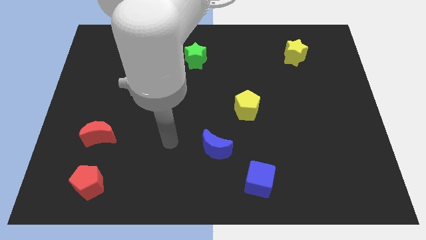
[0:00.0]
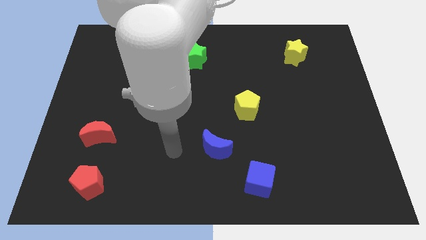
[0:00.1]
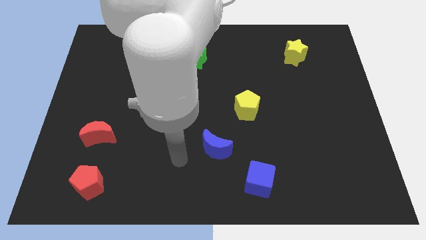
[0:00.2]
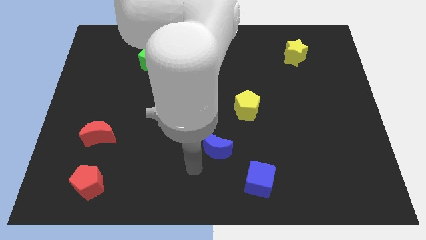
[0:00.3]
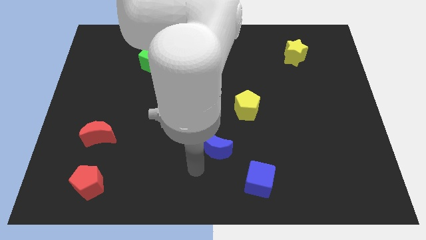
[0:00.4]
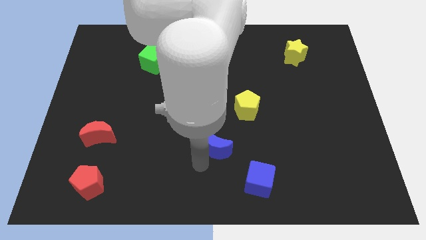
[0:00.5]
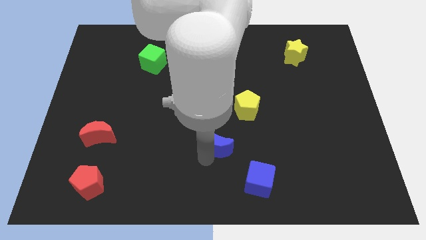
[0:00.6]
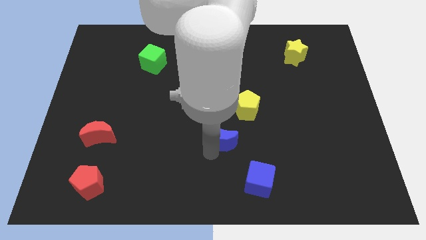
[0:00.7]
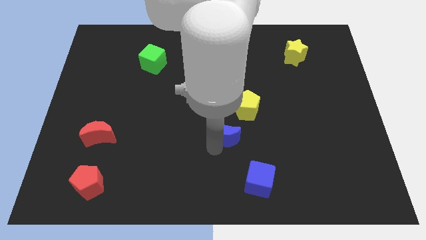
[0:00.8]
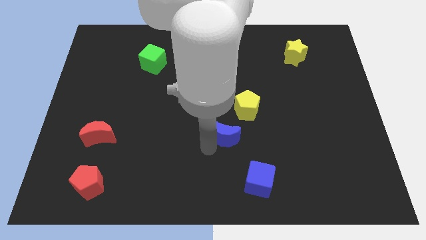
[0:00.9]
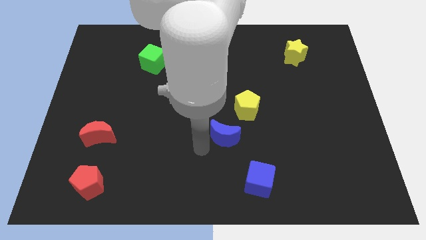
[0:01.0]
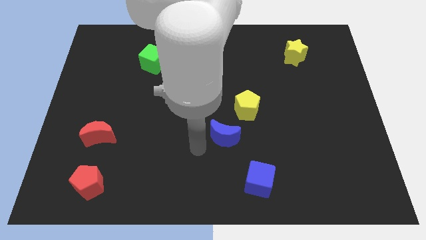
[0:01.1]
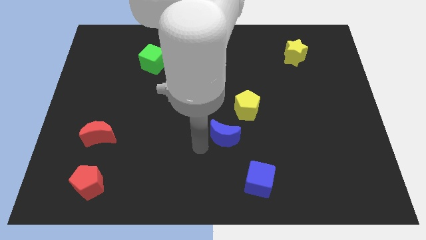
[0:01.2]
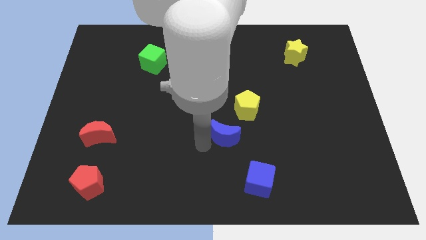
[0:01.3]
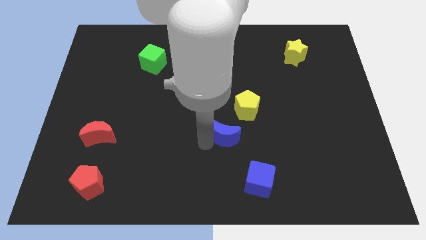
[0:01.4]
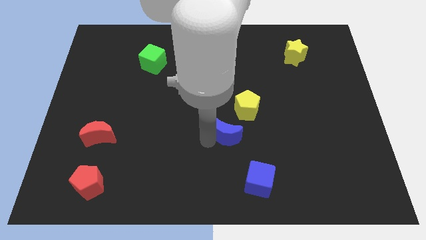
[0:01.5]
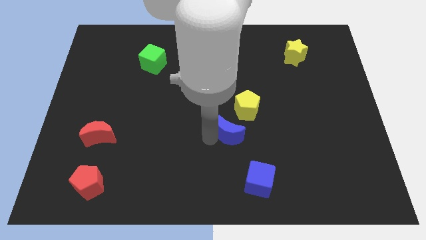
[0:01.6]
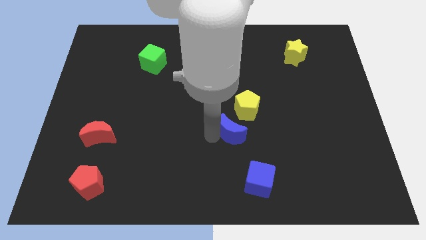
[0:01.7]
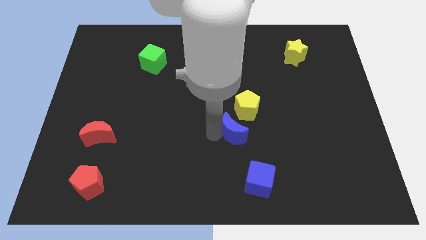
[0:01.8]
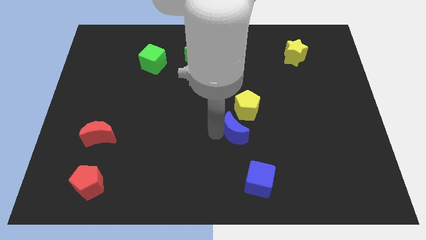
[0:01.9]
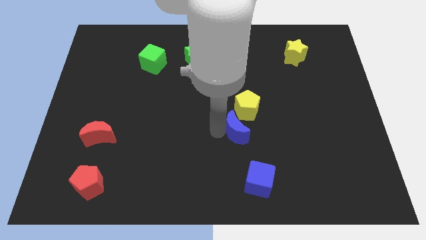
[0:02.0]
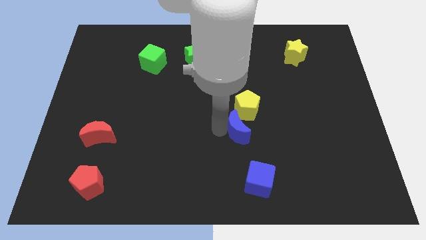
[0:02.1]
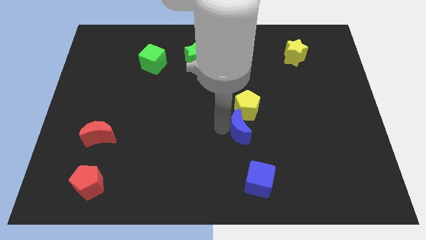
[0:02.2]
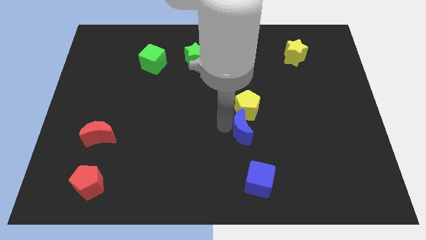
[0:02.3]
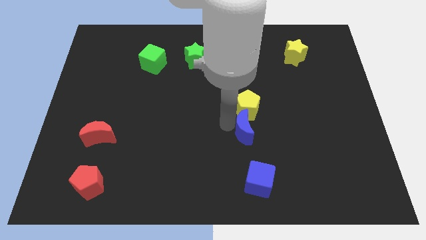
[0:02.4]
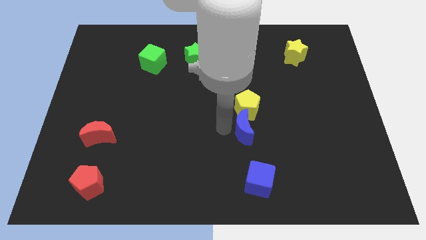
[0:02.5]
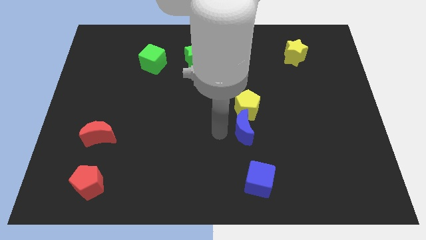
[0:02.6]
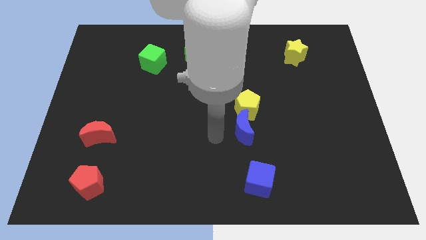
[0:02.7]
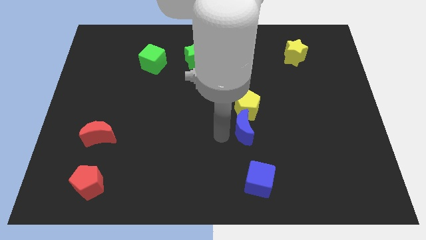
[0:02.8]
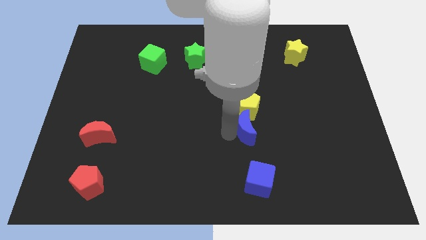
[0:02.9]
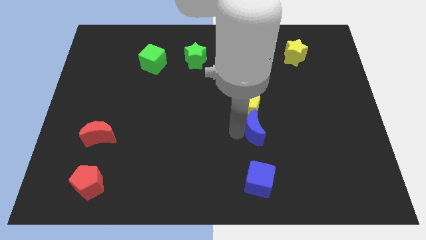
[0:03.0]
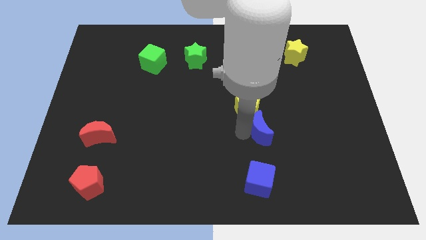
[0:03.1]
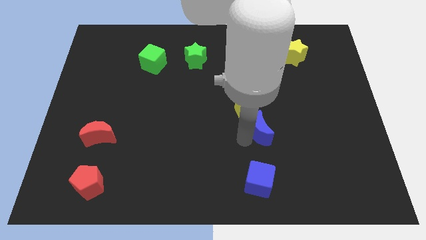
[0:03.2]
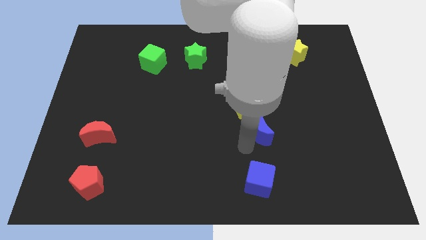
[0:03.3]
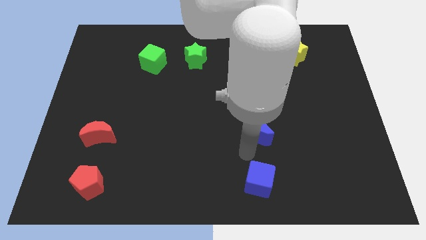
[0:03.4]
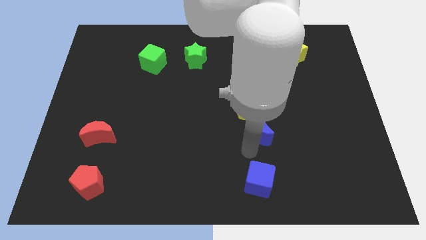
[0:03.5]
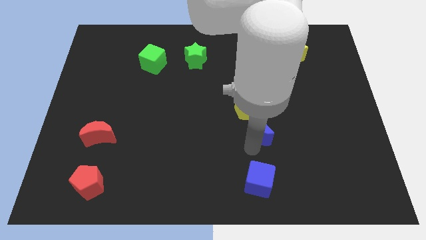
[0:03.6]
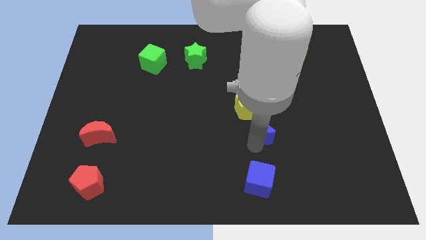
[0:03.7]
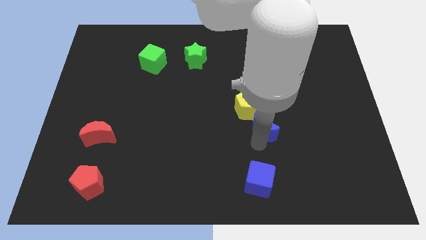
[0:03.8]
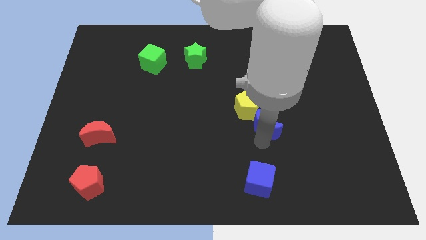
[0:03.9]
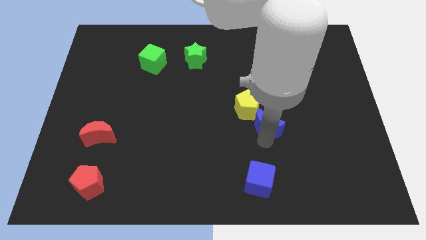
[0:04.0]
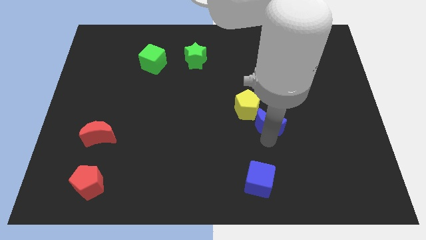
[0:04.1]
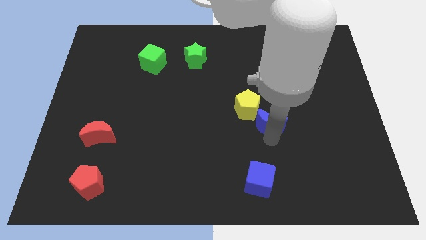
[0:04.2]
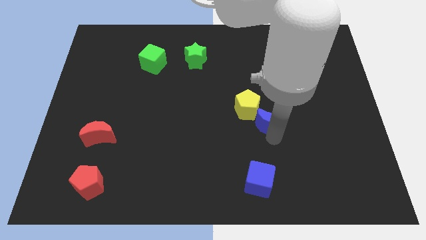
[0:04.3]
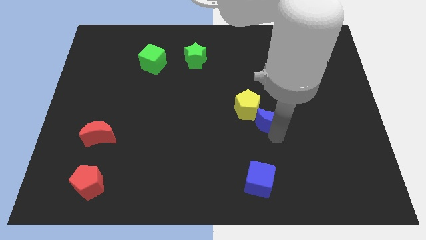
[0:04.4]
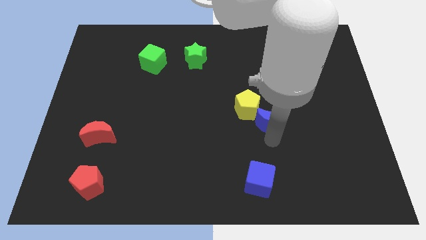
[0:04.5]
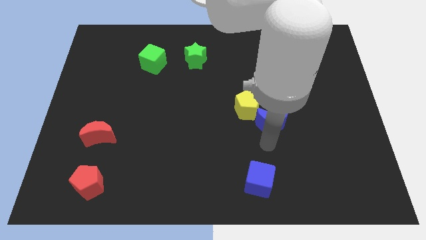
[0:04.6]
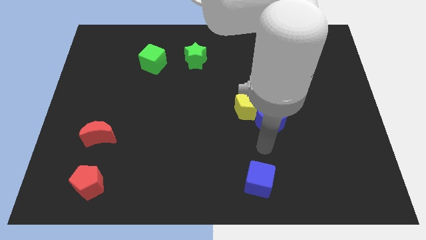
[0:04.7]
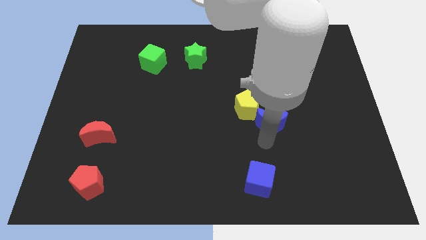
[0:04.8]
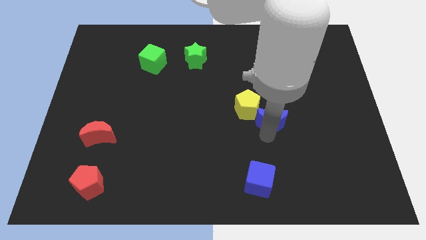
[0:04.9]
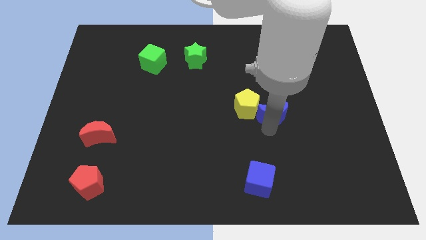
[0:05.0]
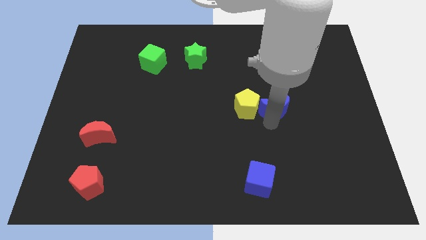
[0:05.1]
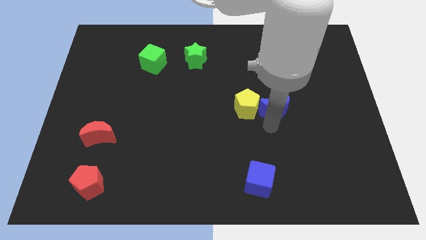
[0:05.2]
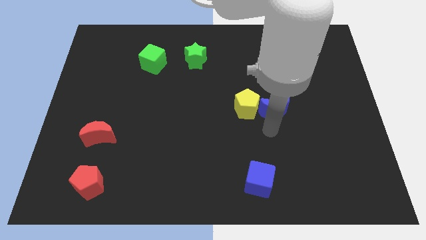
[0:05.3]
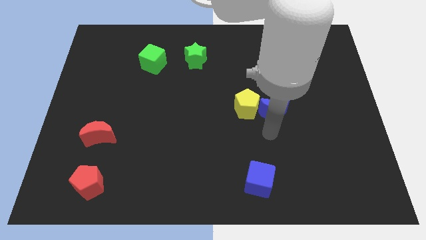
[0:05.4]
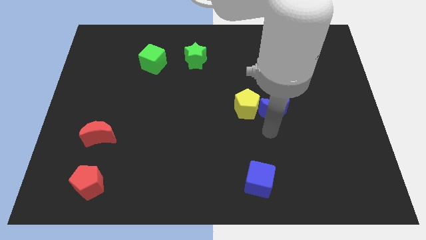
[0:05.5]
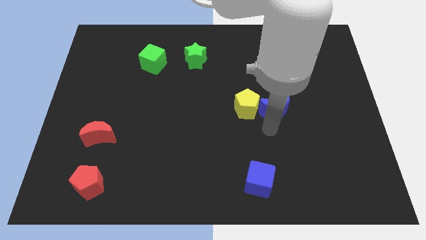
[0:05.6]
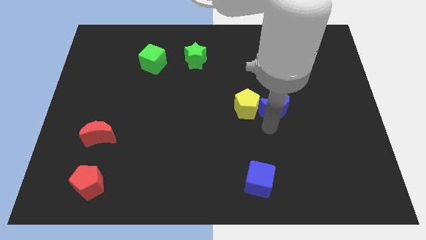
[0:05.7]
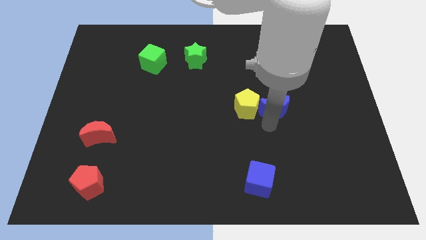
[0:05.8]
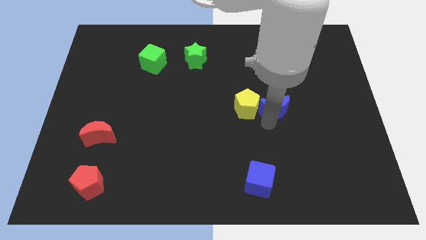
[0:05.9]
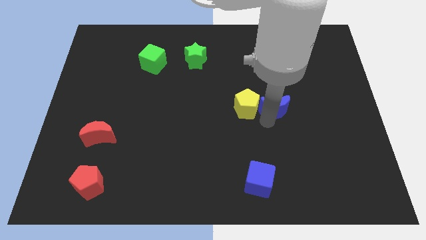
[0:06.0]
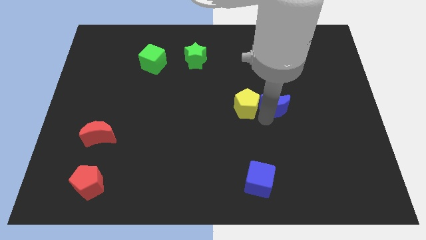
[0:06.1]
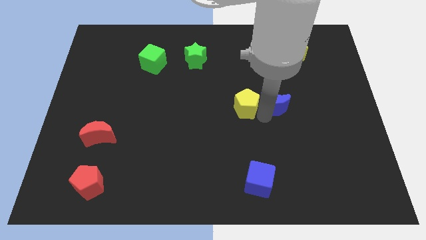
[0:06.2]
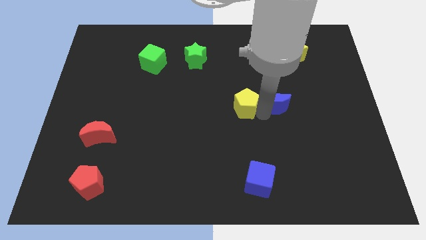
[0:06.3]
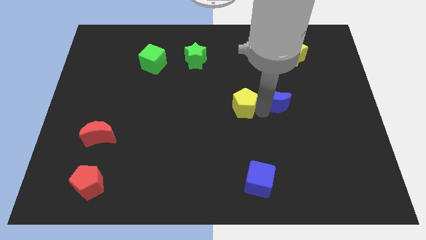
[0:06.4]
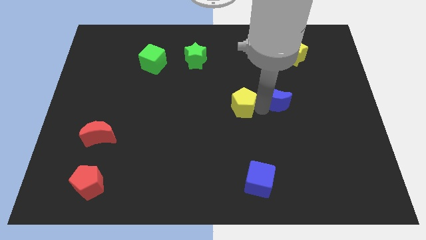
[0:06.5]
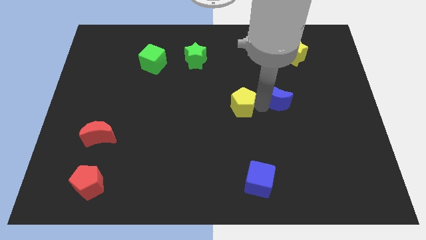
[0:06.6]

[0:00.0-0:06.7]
push the blue moon up and right diagonally

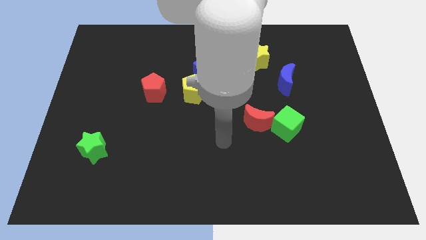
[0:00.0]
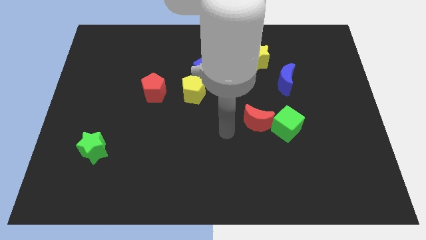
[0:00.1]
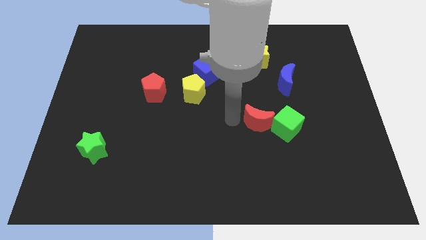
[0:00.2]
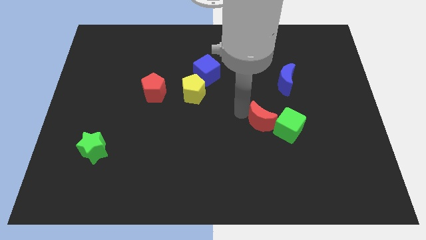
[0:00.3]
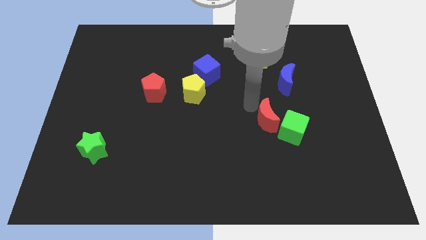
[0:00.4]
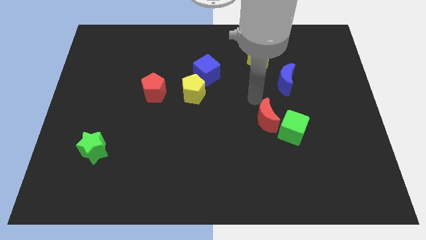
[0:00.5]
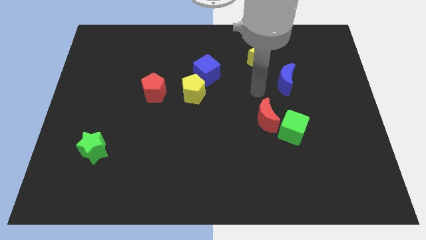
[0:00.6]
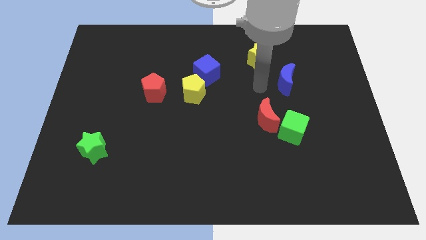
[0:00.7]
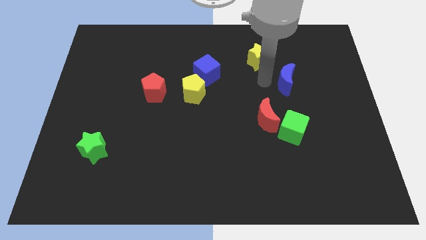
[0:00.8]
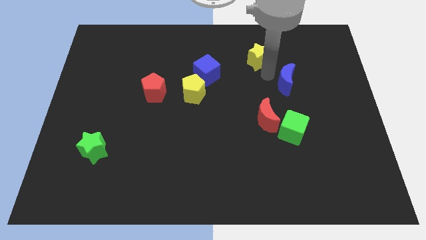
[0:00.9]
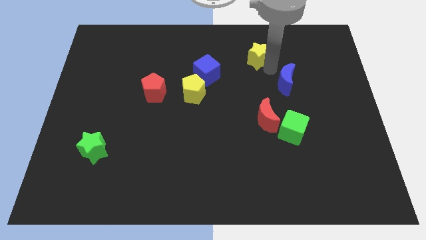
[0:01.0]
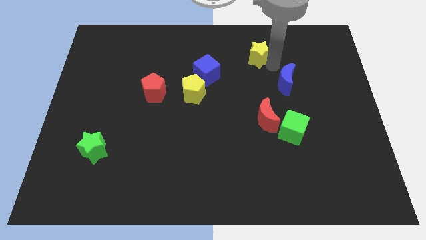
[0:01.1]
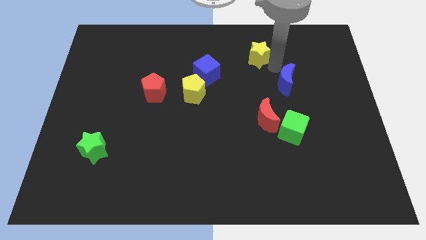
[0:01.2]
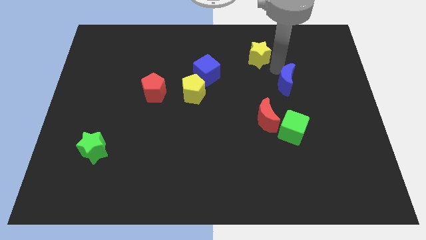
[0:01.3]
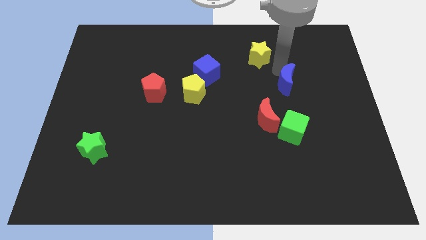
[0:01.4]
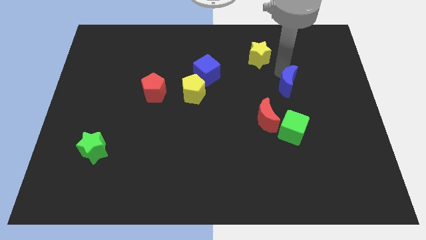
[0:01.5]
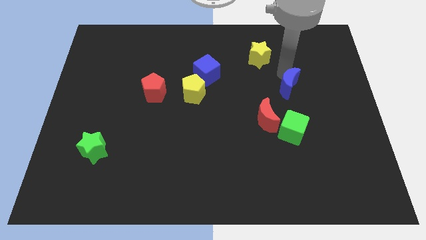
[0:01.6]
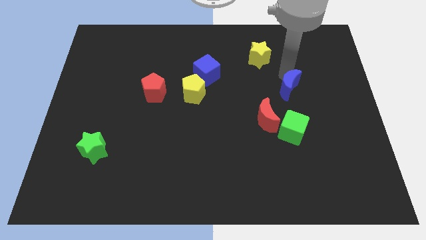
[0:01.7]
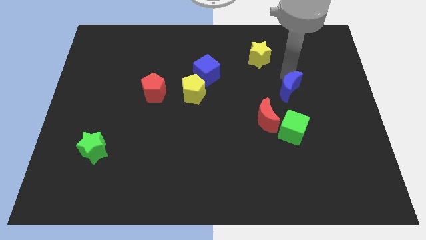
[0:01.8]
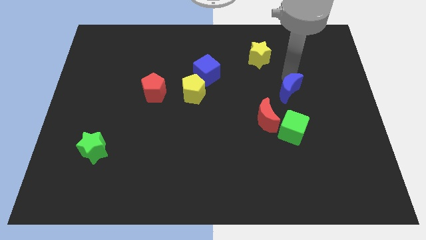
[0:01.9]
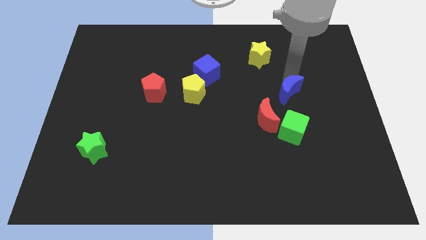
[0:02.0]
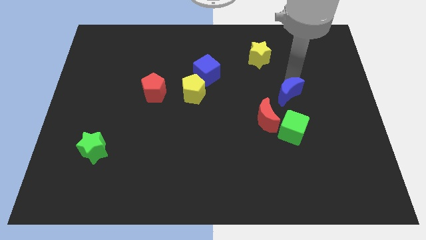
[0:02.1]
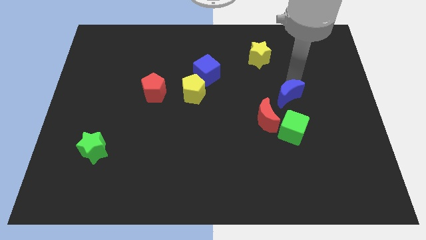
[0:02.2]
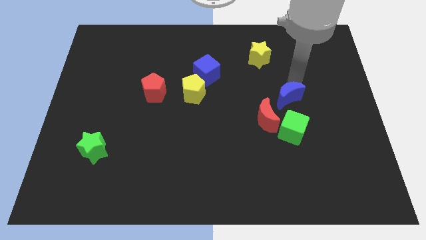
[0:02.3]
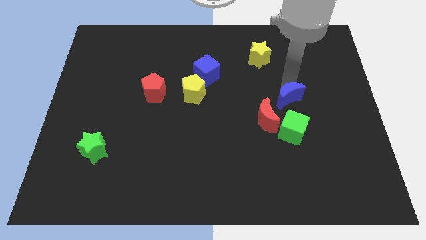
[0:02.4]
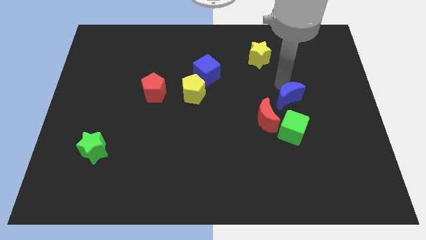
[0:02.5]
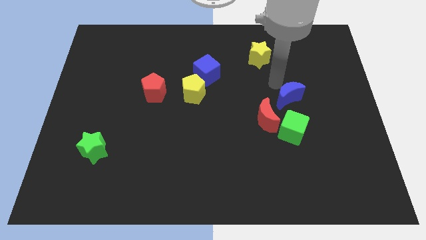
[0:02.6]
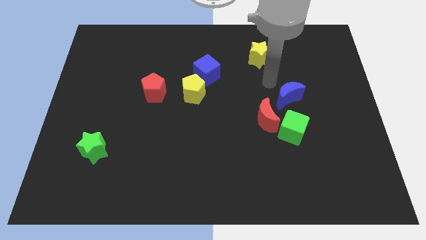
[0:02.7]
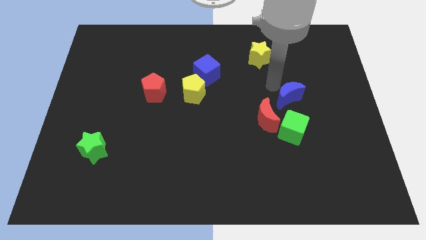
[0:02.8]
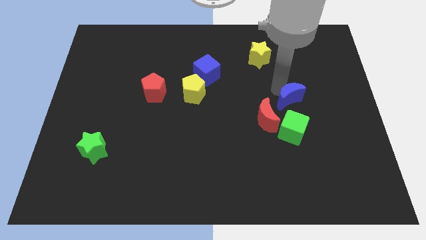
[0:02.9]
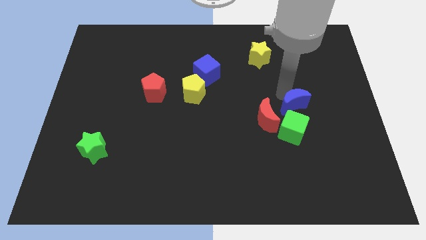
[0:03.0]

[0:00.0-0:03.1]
move the blue moon down somewhat
